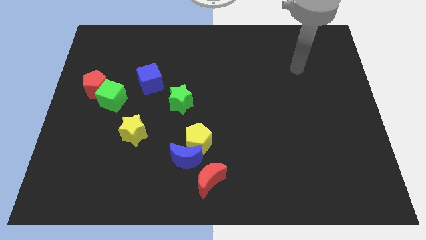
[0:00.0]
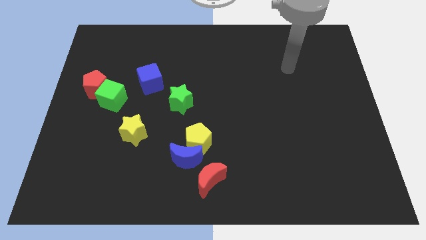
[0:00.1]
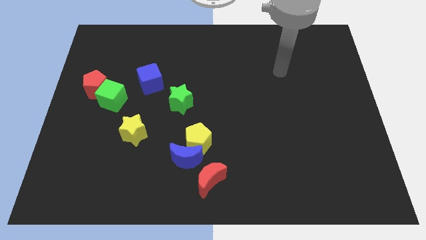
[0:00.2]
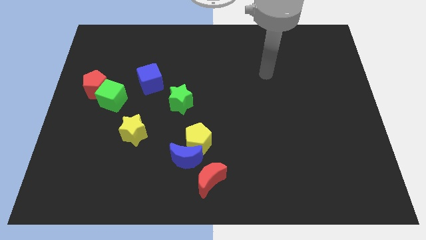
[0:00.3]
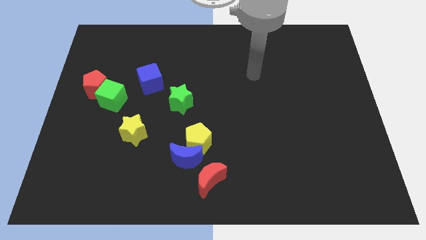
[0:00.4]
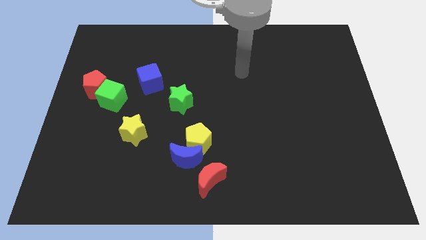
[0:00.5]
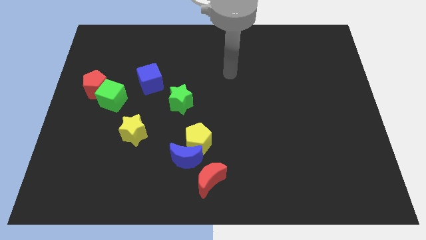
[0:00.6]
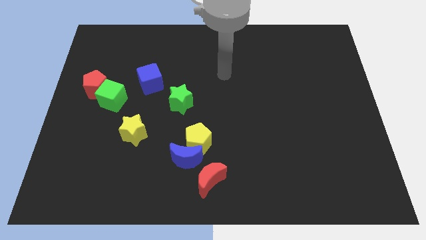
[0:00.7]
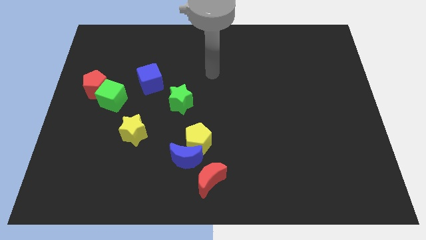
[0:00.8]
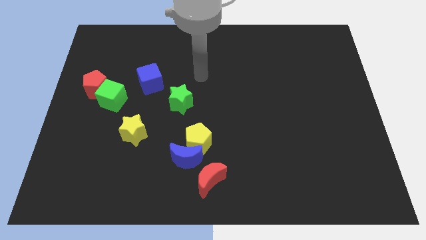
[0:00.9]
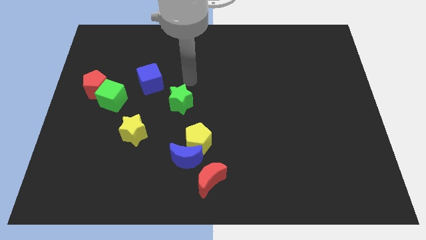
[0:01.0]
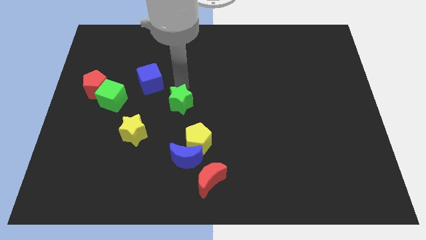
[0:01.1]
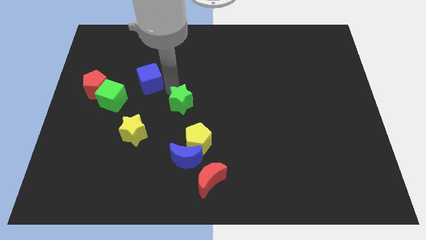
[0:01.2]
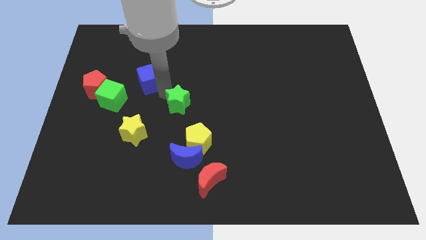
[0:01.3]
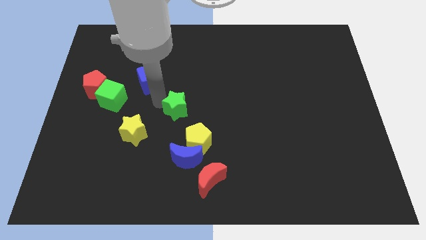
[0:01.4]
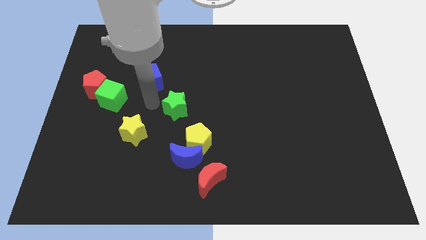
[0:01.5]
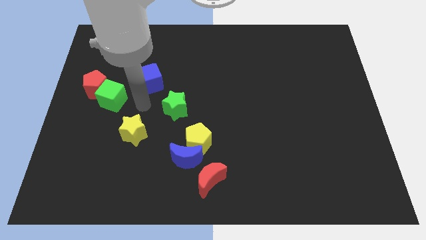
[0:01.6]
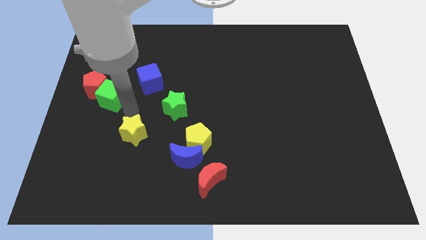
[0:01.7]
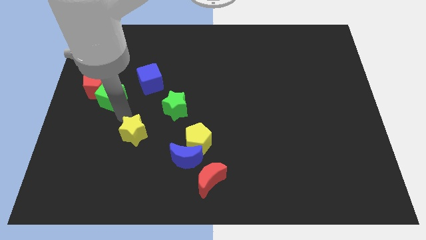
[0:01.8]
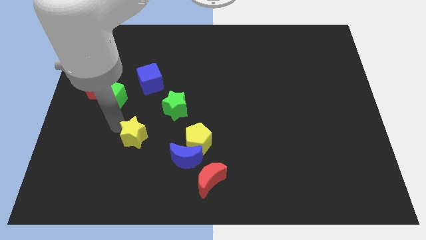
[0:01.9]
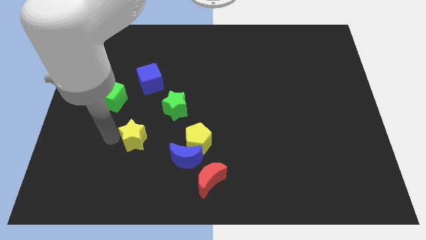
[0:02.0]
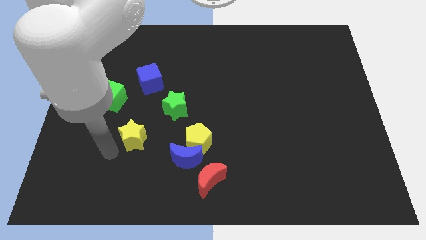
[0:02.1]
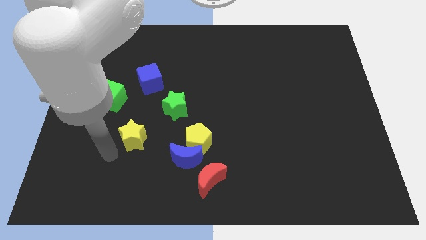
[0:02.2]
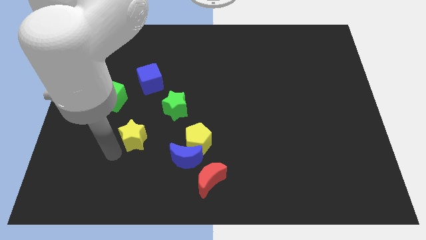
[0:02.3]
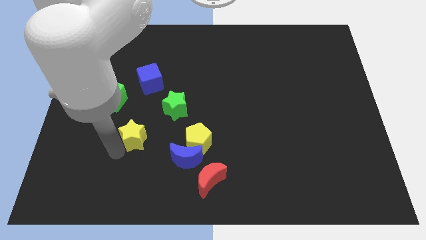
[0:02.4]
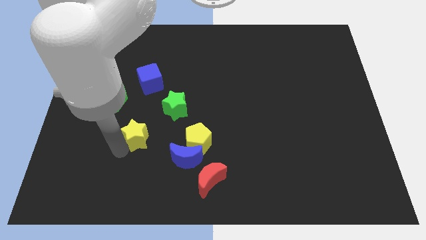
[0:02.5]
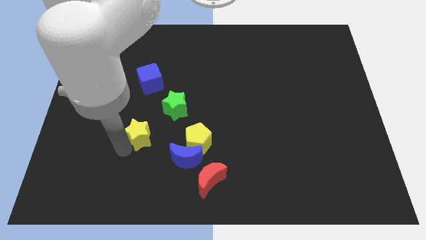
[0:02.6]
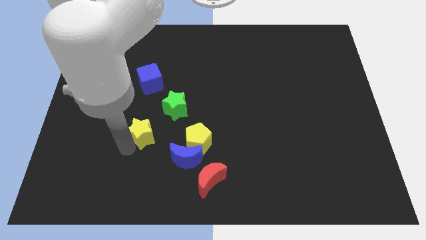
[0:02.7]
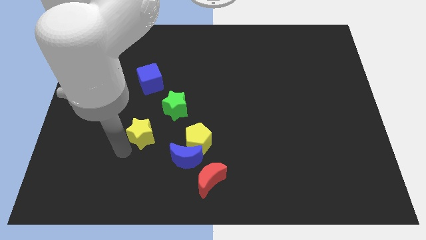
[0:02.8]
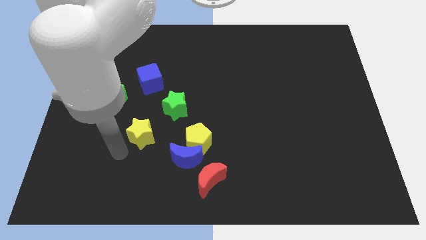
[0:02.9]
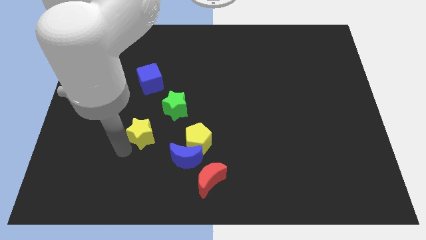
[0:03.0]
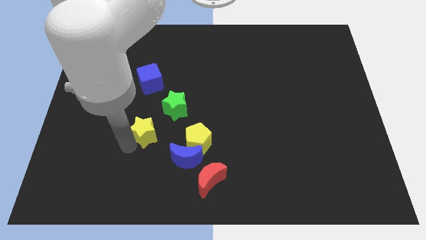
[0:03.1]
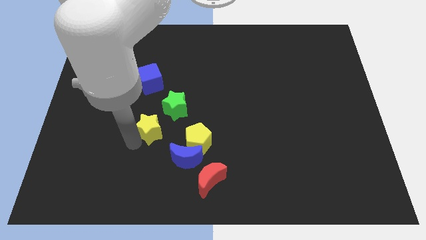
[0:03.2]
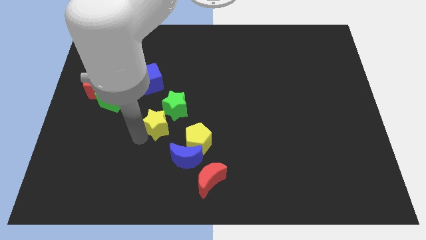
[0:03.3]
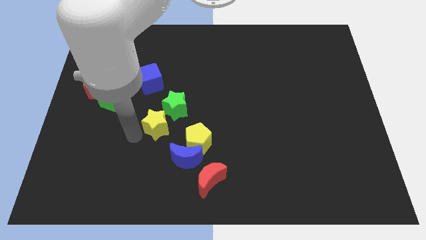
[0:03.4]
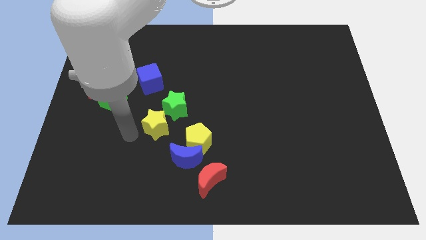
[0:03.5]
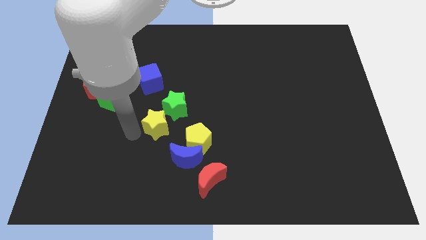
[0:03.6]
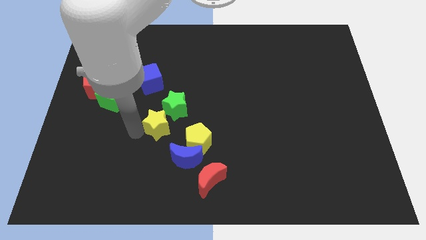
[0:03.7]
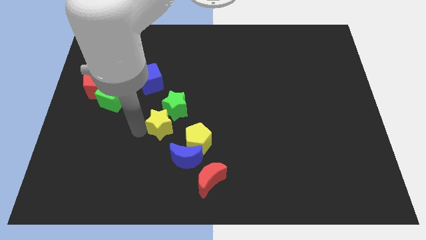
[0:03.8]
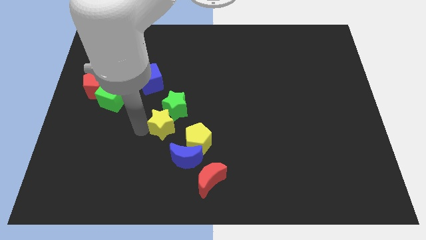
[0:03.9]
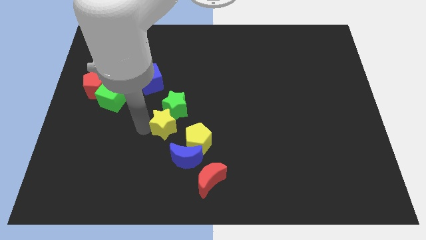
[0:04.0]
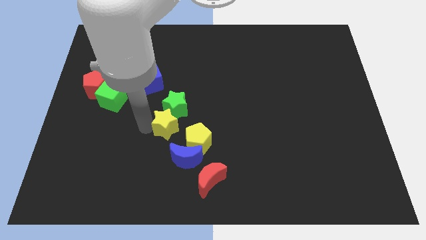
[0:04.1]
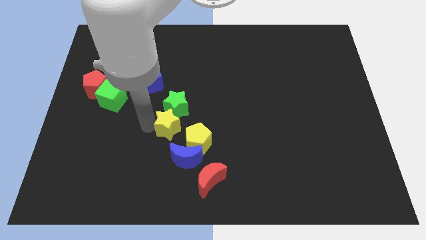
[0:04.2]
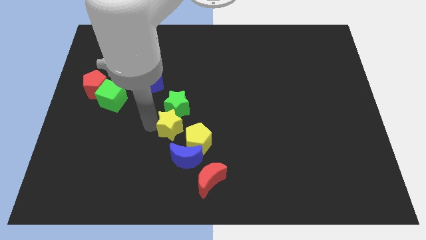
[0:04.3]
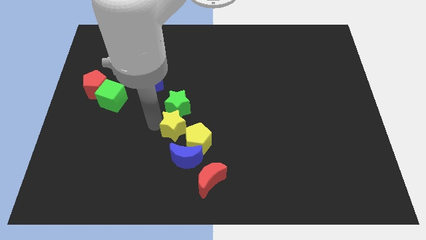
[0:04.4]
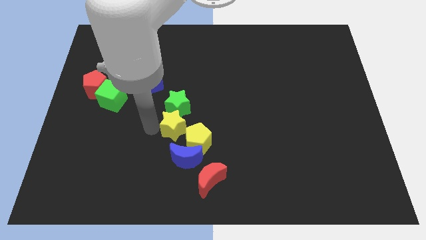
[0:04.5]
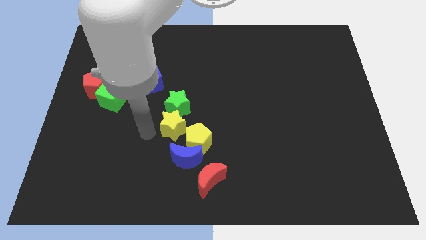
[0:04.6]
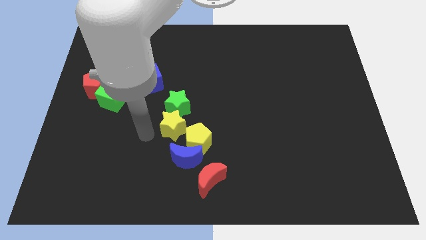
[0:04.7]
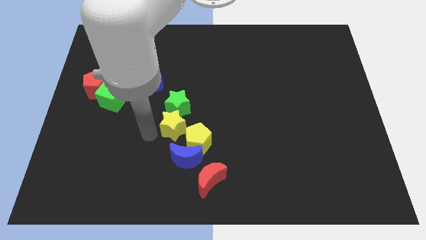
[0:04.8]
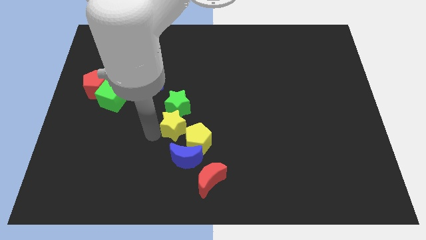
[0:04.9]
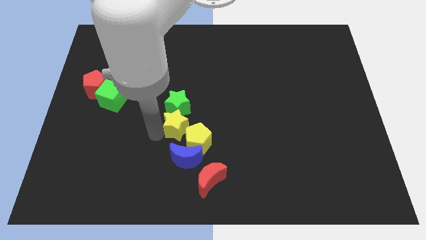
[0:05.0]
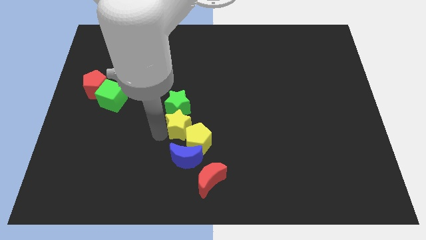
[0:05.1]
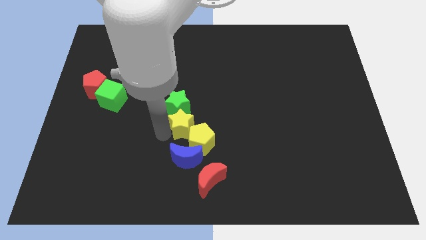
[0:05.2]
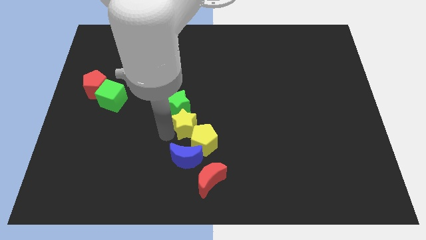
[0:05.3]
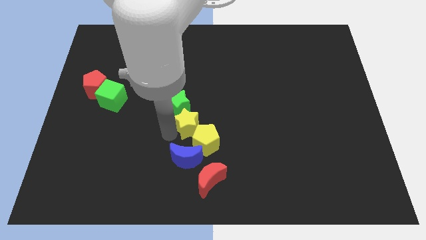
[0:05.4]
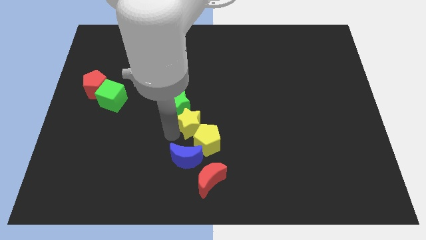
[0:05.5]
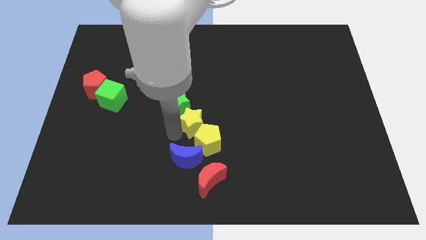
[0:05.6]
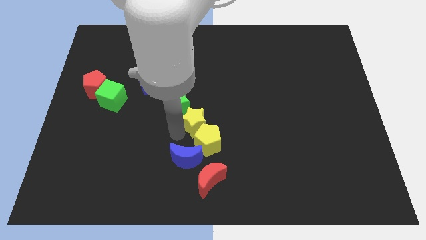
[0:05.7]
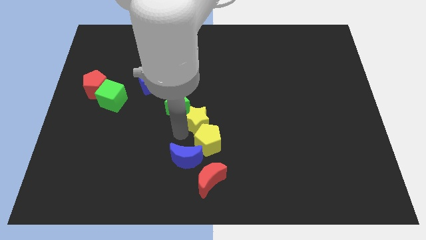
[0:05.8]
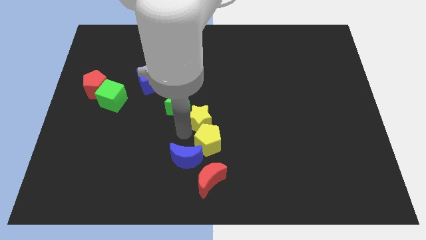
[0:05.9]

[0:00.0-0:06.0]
put the yellow star to the top right of the blue moon

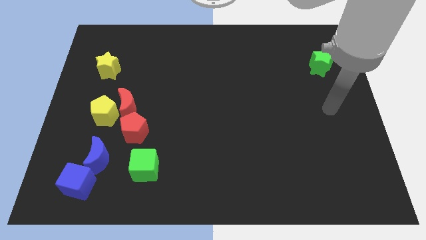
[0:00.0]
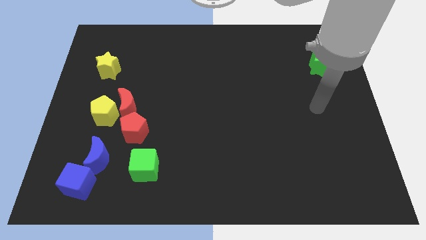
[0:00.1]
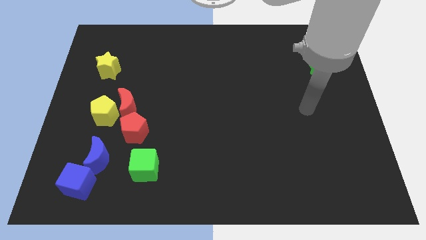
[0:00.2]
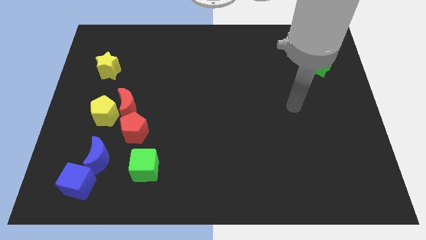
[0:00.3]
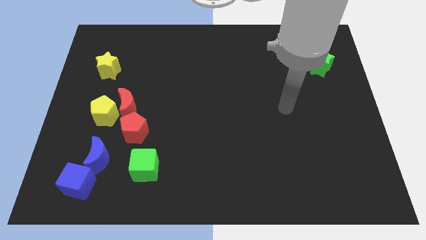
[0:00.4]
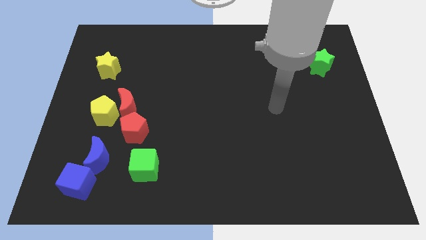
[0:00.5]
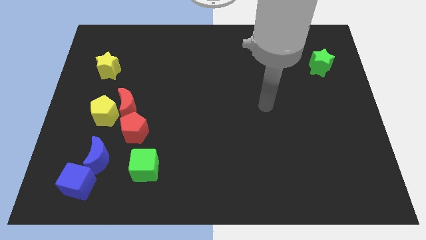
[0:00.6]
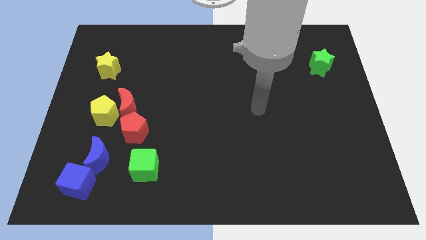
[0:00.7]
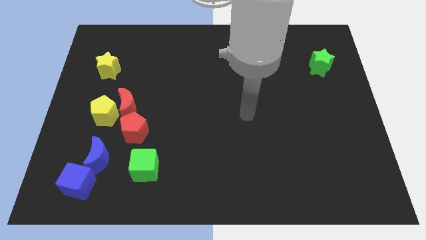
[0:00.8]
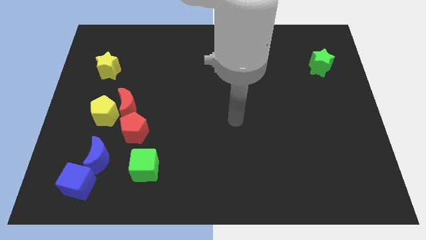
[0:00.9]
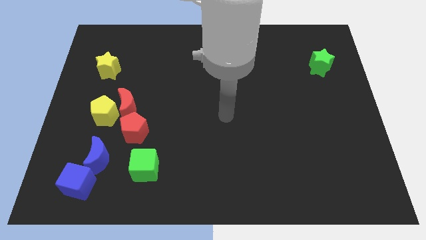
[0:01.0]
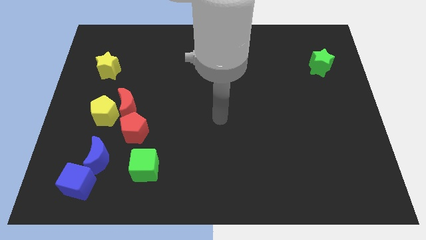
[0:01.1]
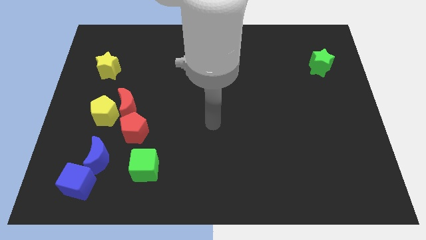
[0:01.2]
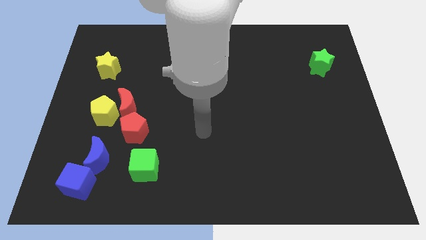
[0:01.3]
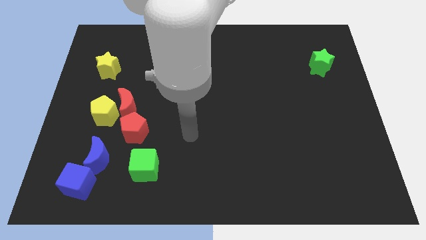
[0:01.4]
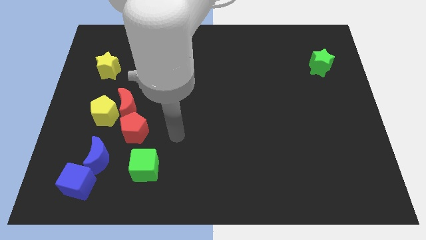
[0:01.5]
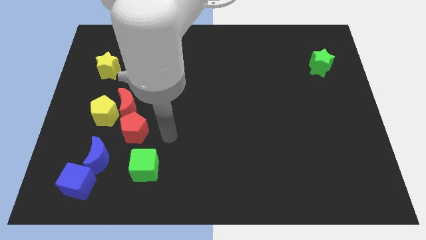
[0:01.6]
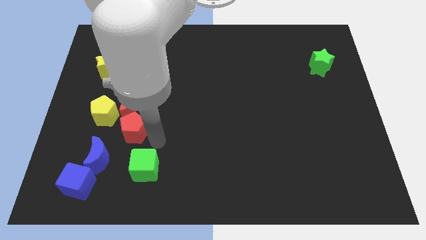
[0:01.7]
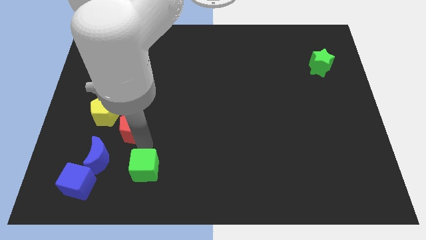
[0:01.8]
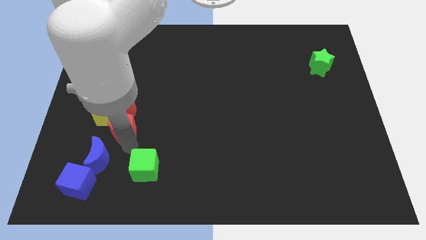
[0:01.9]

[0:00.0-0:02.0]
move the red moon to the top right side of the red pentagon
